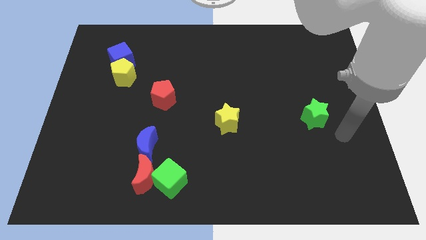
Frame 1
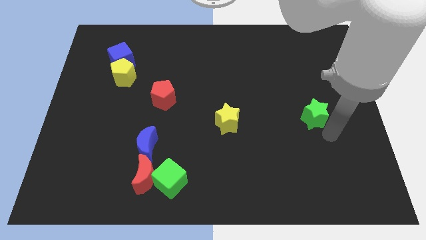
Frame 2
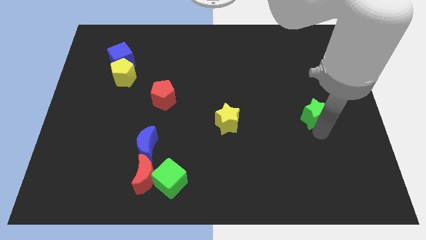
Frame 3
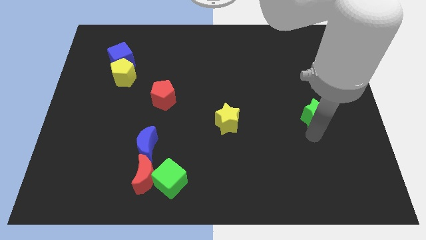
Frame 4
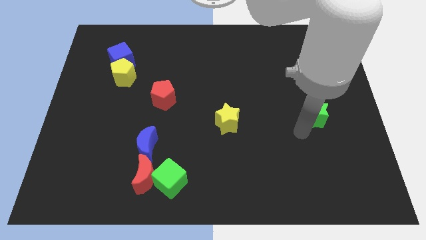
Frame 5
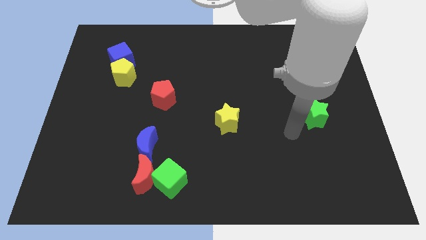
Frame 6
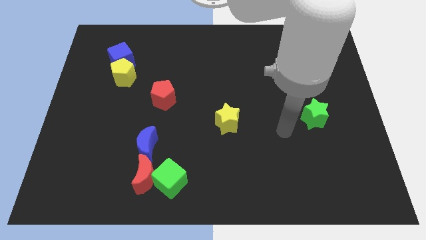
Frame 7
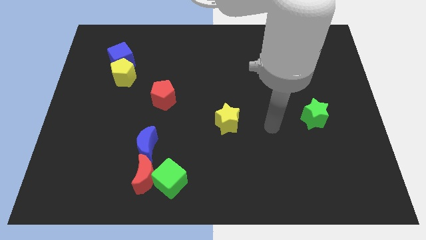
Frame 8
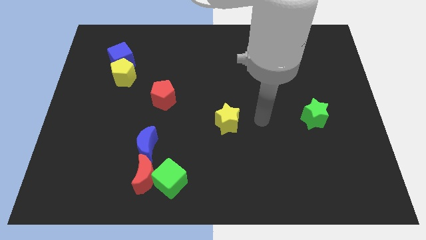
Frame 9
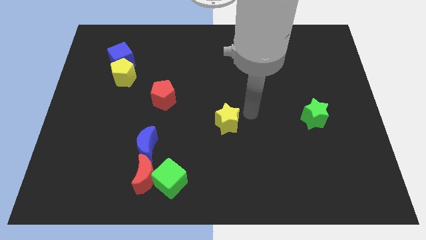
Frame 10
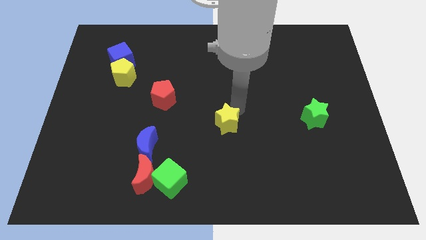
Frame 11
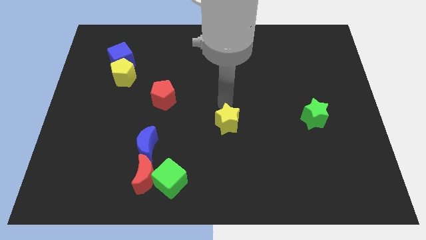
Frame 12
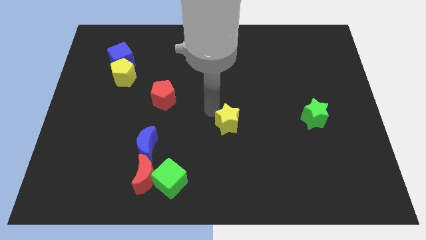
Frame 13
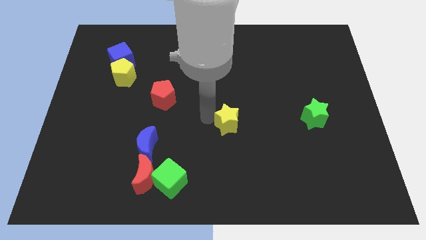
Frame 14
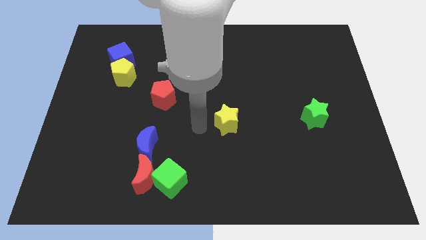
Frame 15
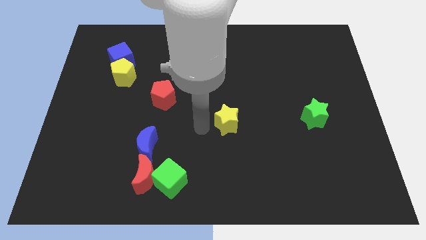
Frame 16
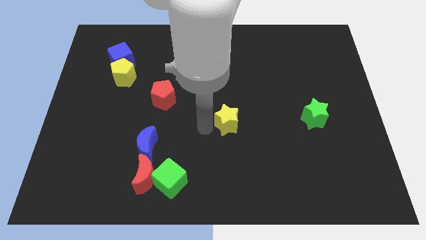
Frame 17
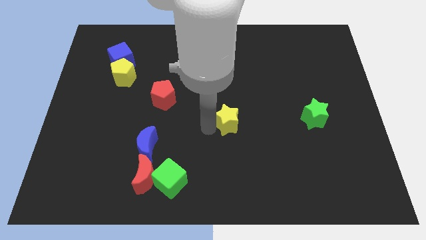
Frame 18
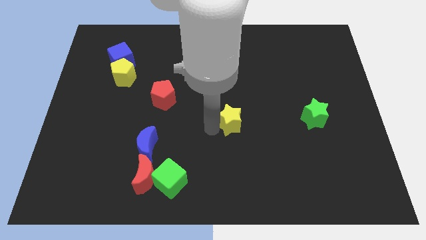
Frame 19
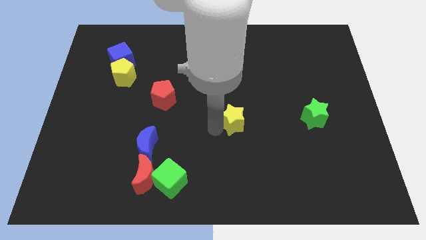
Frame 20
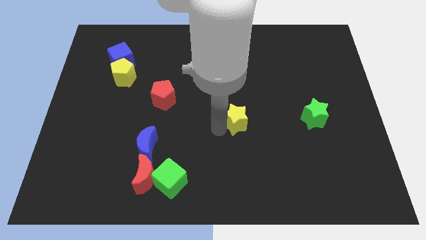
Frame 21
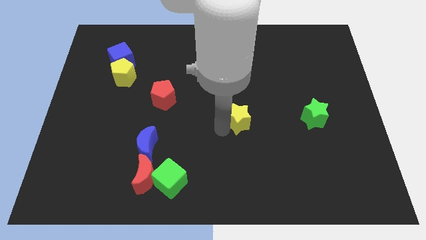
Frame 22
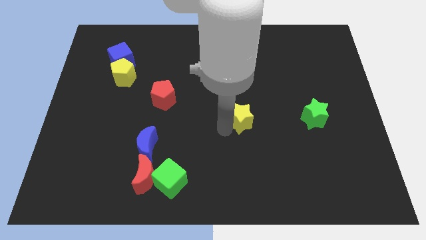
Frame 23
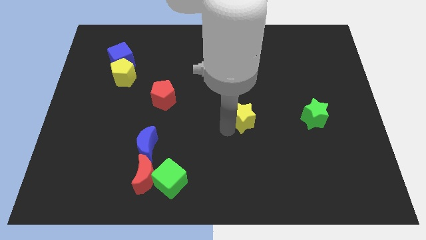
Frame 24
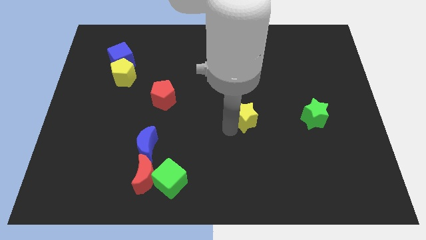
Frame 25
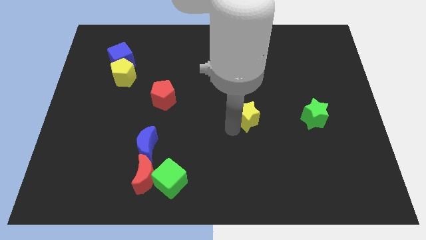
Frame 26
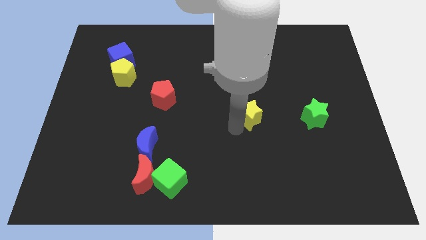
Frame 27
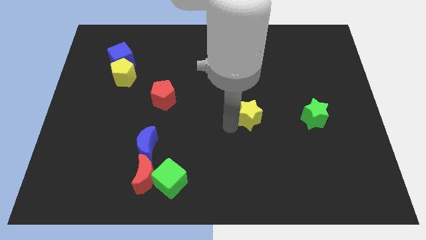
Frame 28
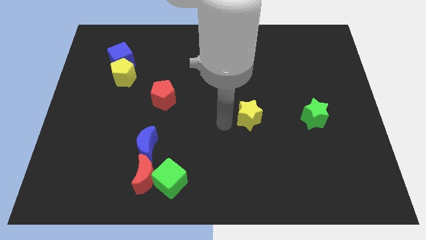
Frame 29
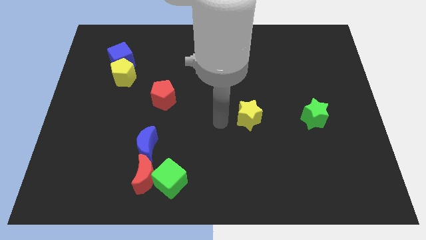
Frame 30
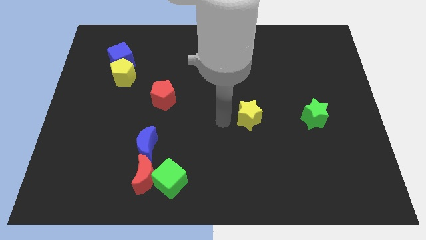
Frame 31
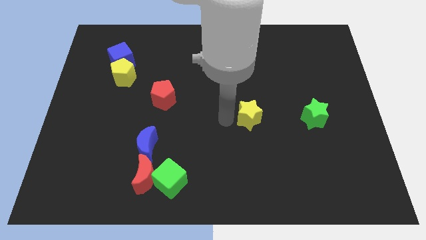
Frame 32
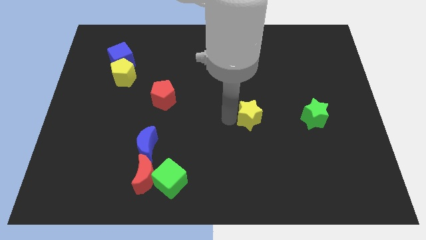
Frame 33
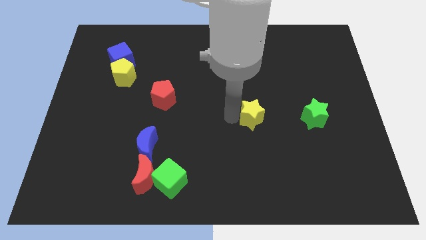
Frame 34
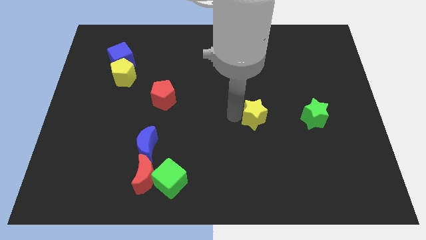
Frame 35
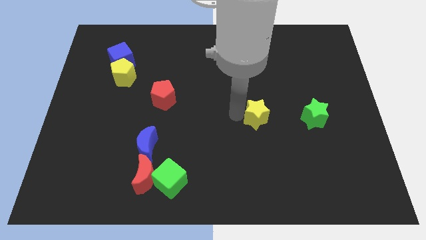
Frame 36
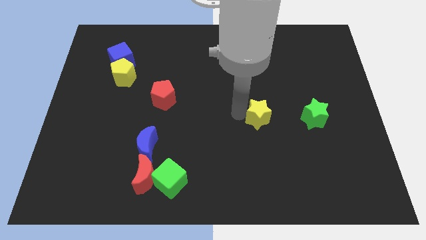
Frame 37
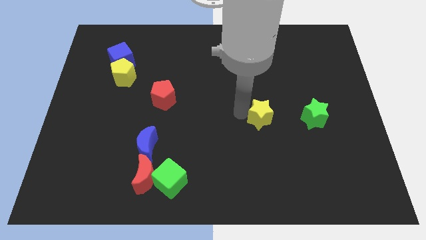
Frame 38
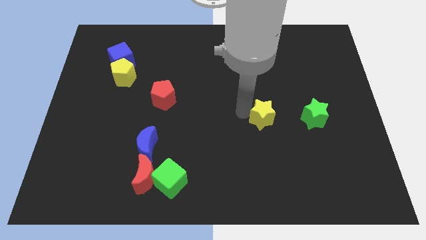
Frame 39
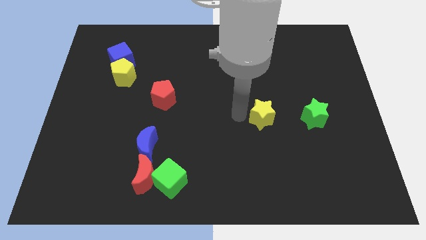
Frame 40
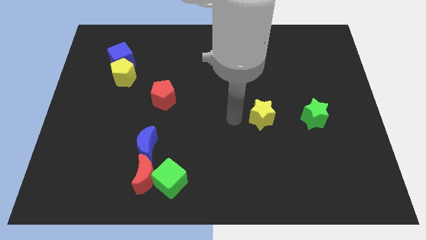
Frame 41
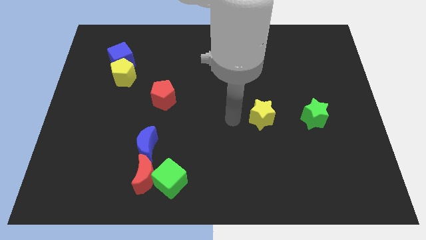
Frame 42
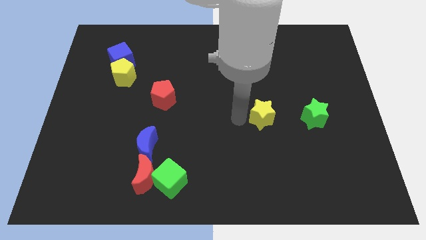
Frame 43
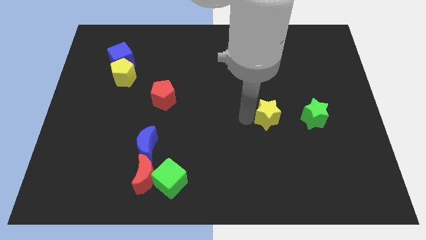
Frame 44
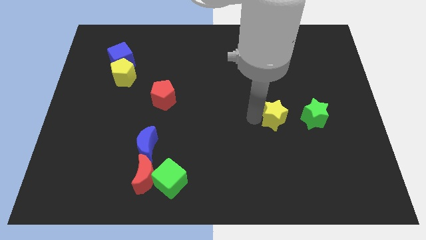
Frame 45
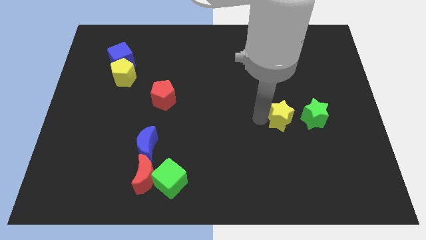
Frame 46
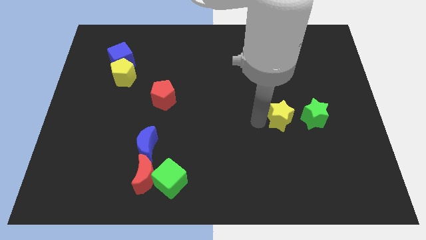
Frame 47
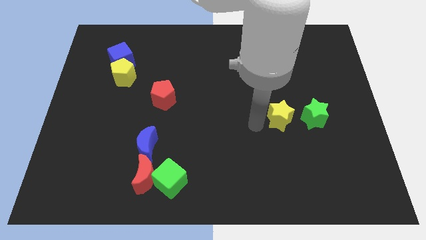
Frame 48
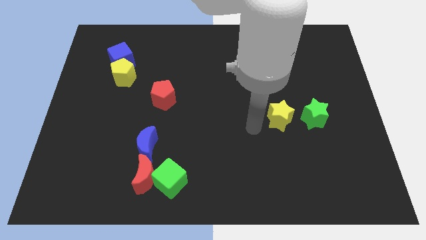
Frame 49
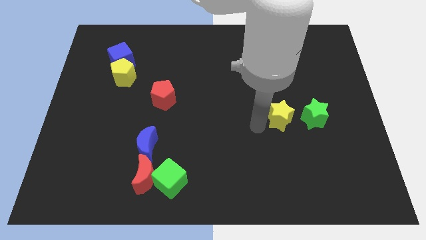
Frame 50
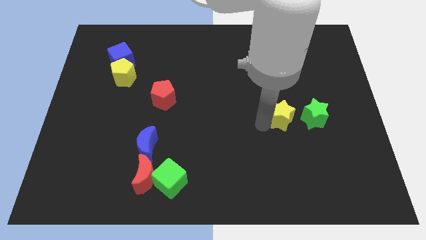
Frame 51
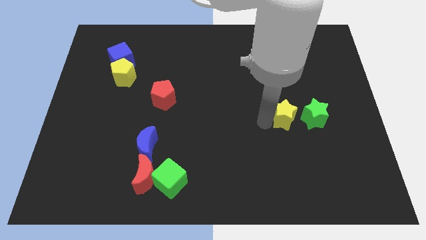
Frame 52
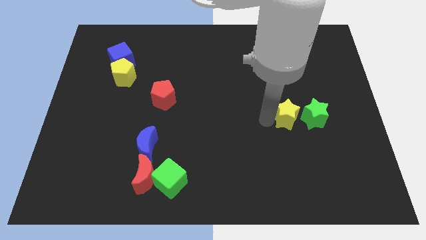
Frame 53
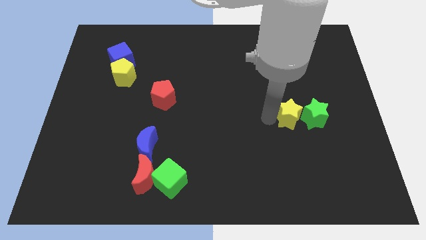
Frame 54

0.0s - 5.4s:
move the yellow star towards the green star

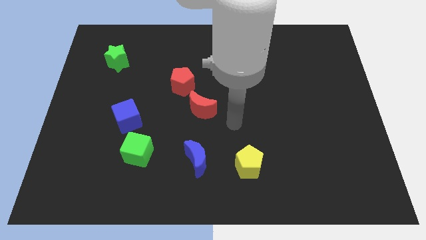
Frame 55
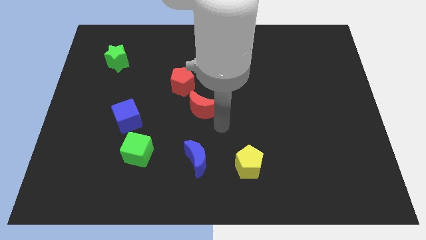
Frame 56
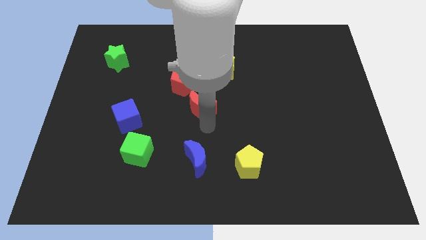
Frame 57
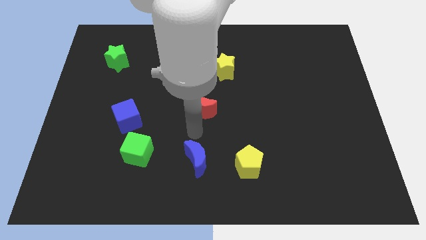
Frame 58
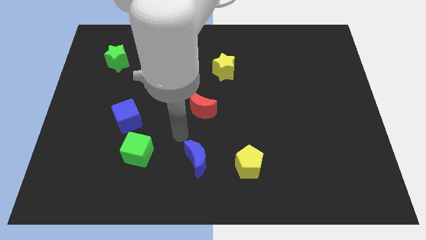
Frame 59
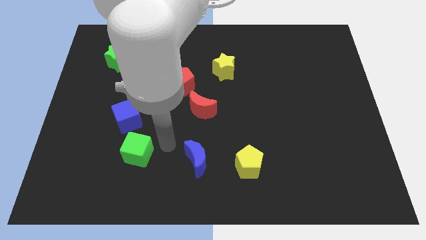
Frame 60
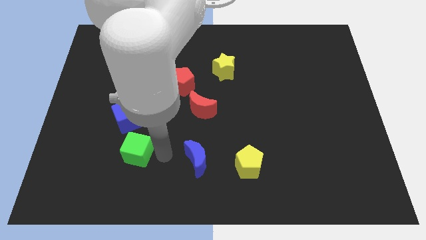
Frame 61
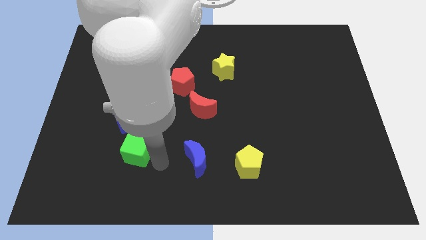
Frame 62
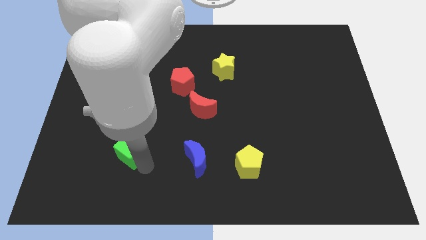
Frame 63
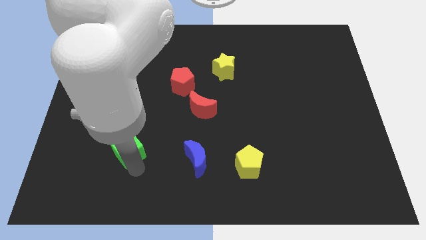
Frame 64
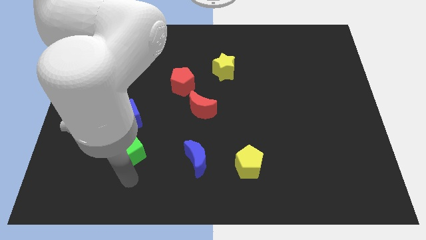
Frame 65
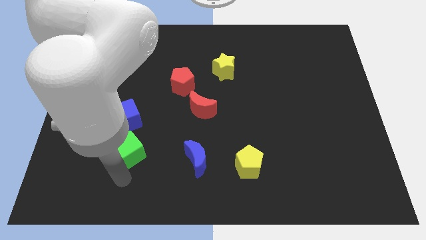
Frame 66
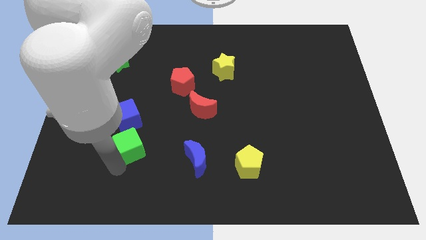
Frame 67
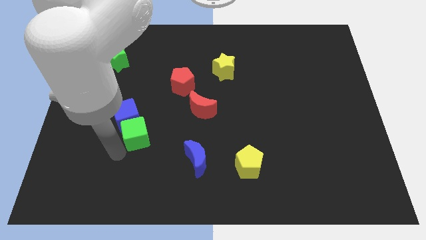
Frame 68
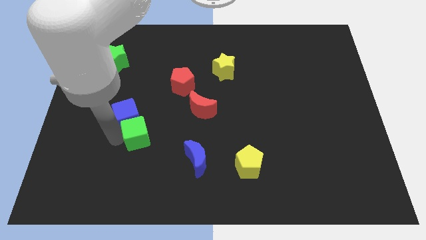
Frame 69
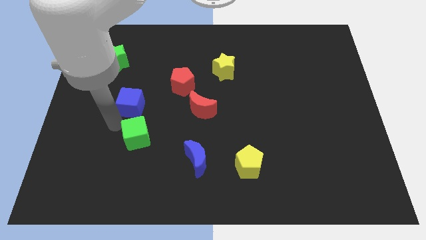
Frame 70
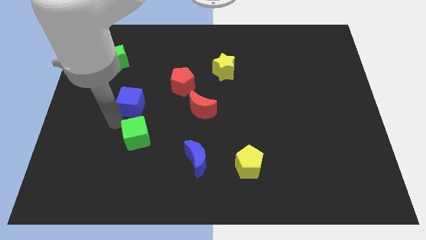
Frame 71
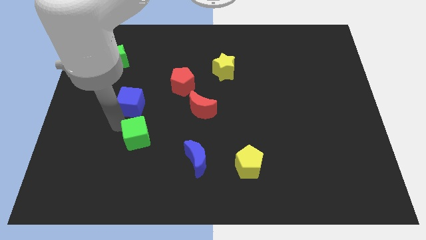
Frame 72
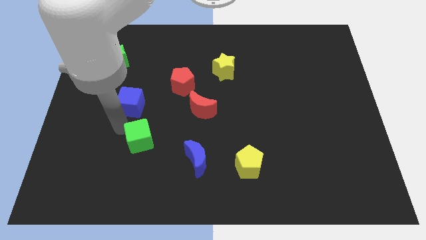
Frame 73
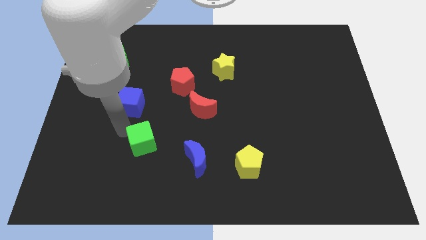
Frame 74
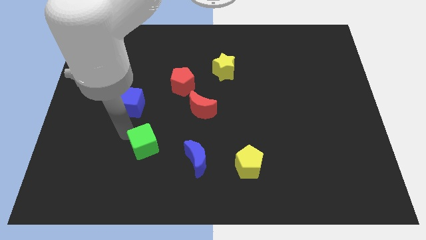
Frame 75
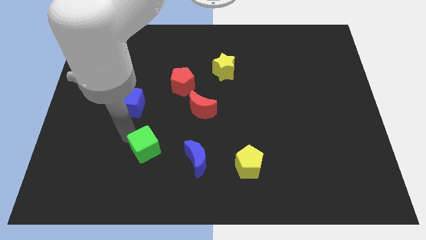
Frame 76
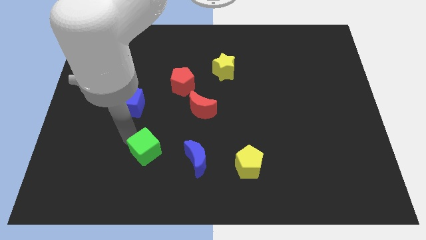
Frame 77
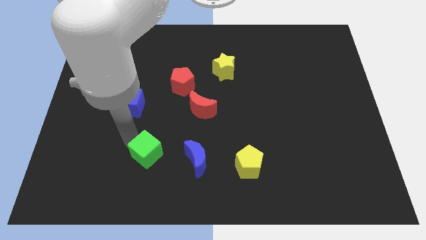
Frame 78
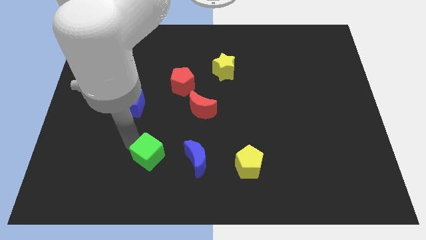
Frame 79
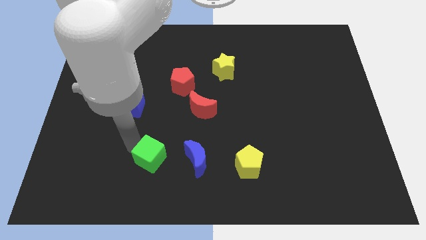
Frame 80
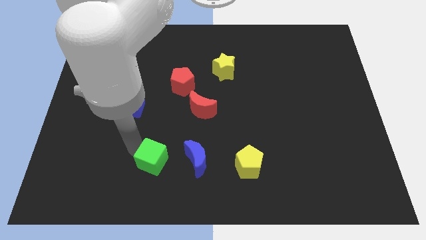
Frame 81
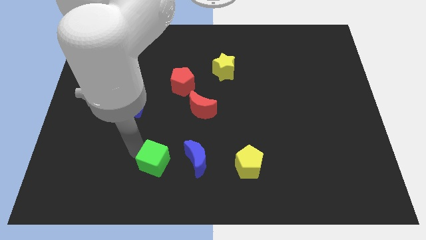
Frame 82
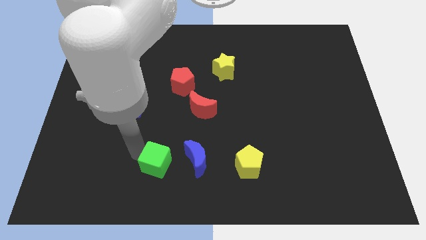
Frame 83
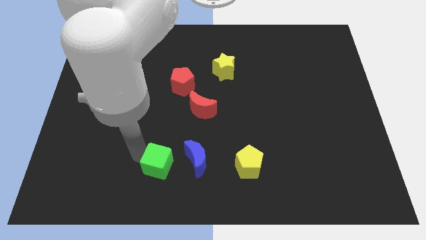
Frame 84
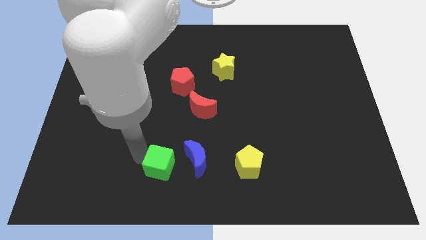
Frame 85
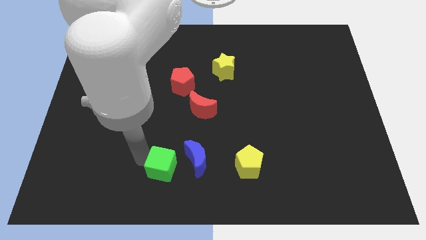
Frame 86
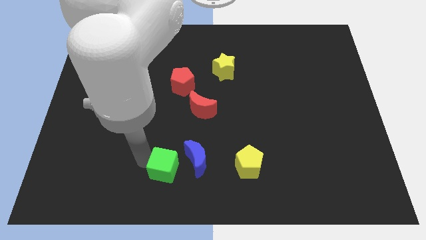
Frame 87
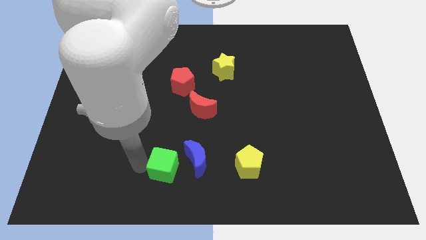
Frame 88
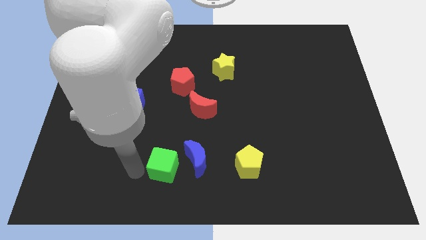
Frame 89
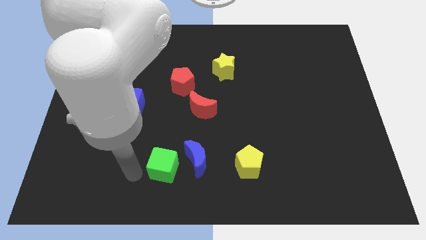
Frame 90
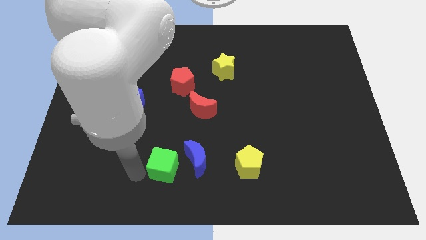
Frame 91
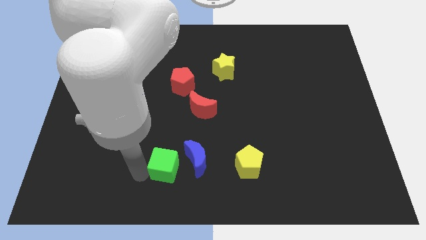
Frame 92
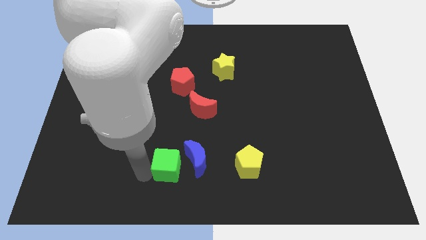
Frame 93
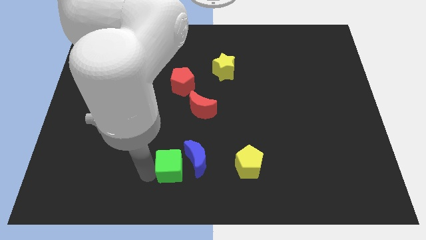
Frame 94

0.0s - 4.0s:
push the green cube towards the blue moon
